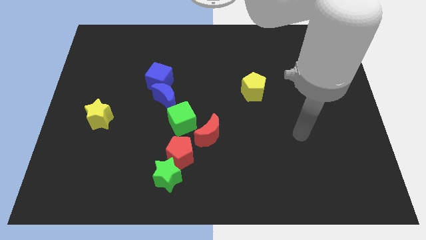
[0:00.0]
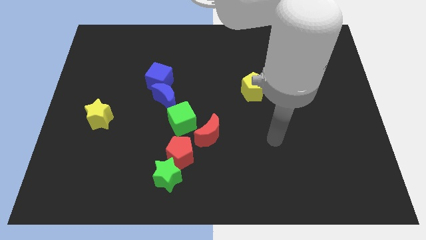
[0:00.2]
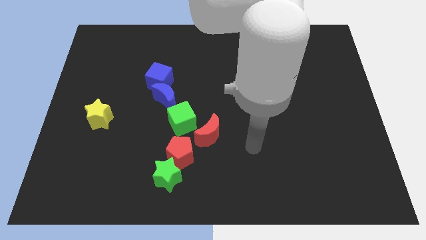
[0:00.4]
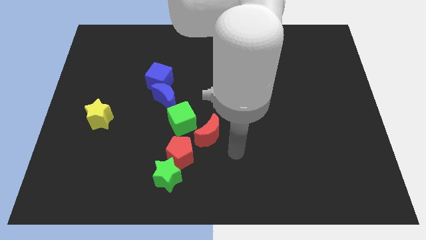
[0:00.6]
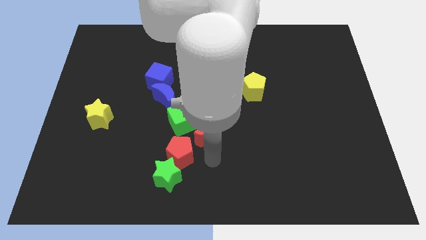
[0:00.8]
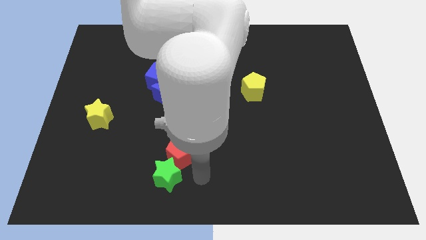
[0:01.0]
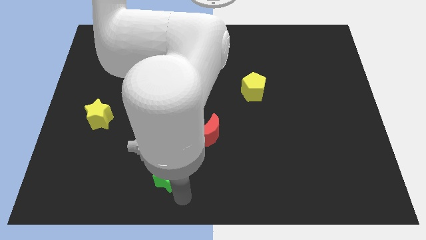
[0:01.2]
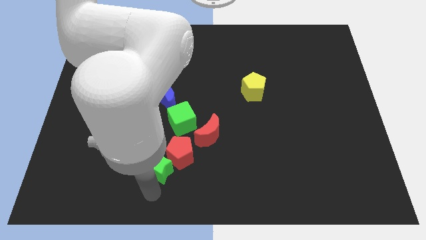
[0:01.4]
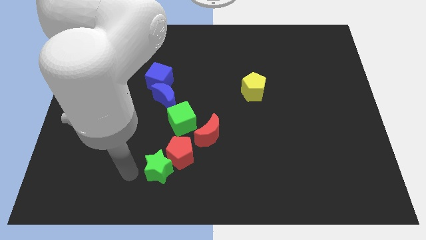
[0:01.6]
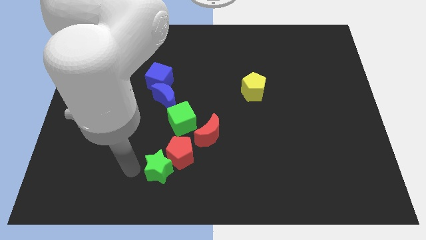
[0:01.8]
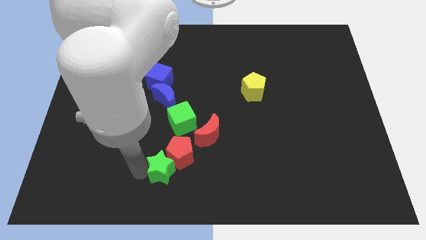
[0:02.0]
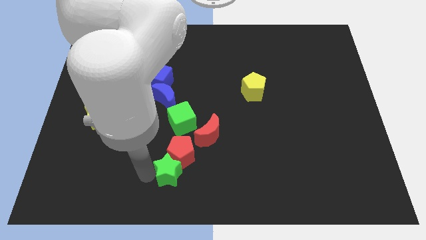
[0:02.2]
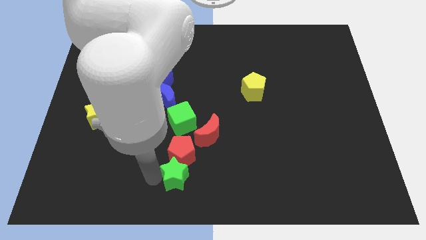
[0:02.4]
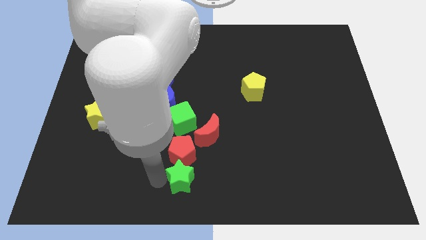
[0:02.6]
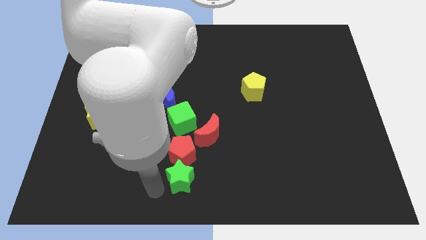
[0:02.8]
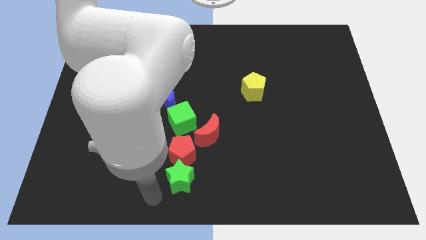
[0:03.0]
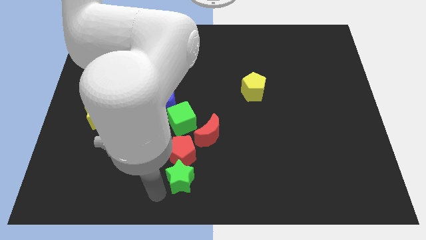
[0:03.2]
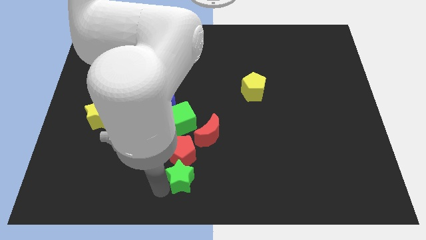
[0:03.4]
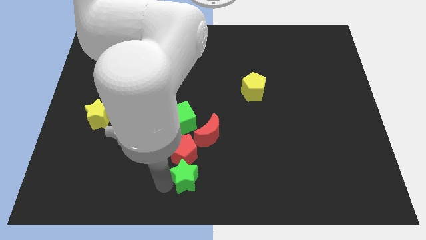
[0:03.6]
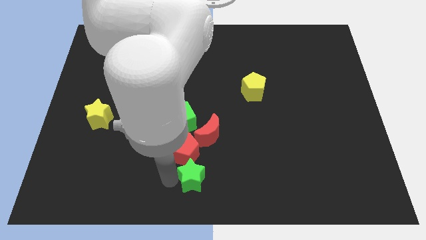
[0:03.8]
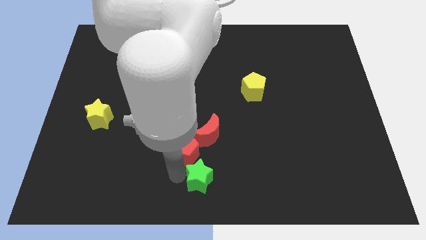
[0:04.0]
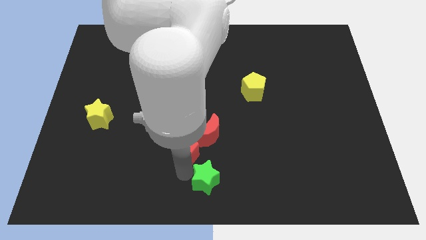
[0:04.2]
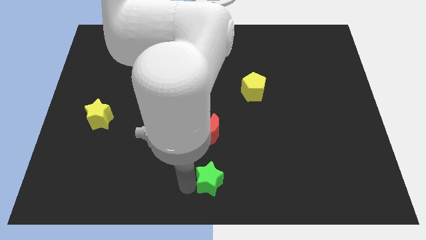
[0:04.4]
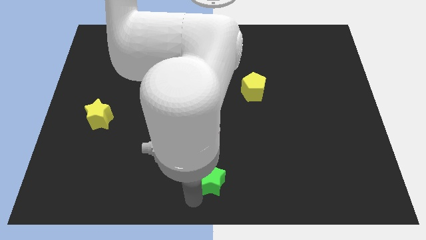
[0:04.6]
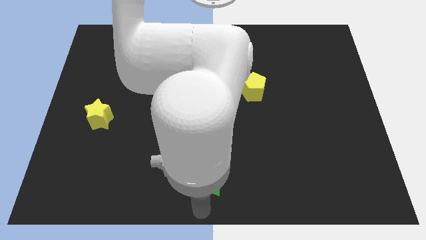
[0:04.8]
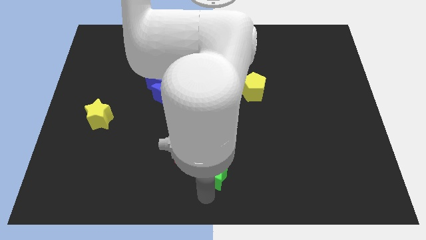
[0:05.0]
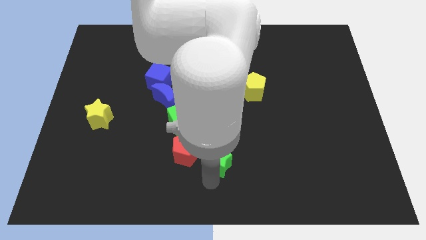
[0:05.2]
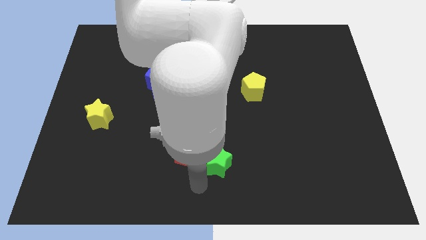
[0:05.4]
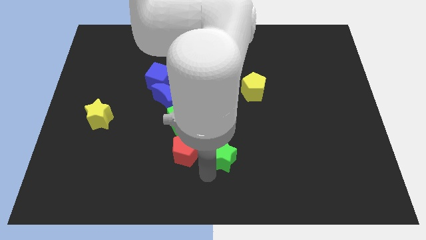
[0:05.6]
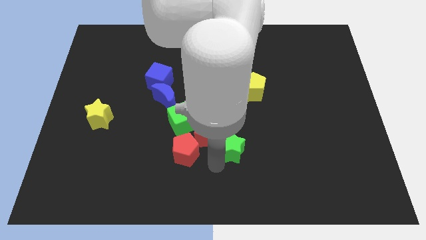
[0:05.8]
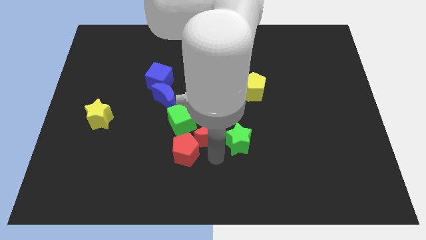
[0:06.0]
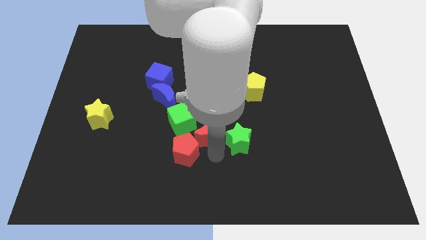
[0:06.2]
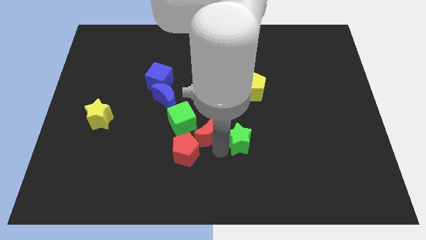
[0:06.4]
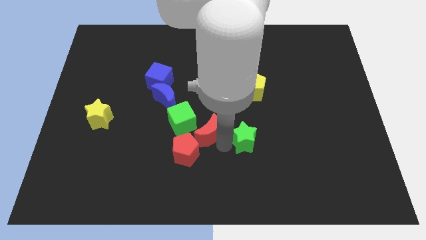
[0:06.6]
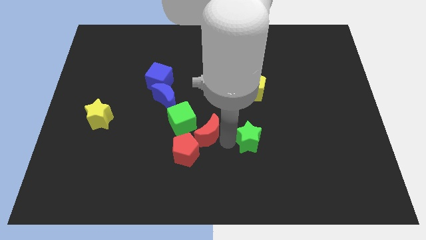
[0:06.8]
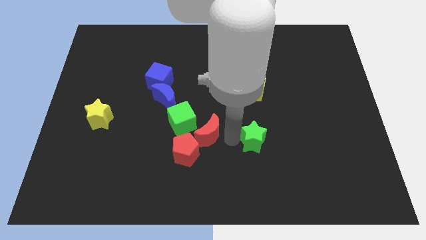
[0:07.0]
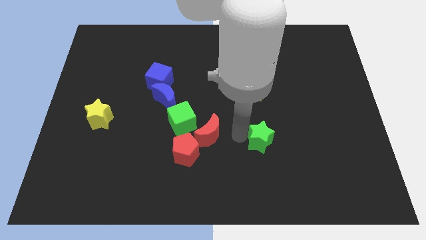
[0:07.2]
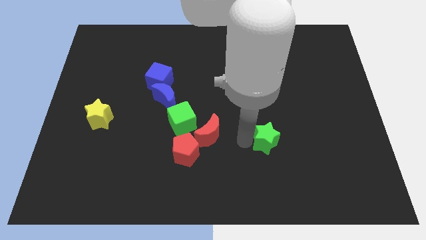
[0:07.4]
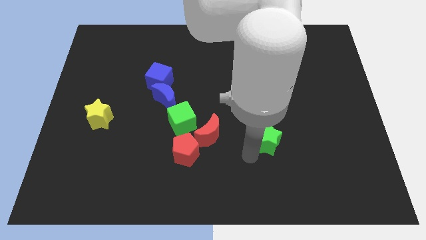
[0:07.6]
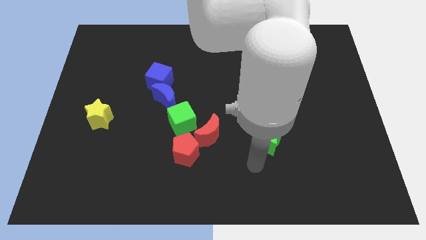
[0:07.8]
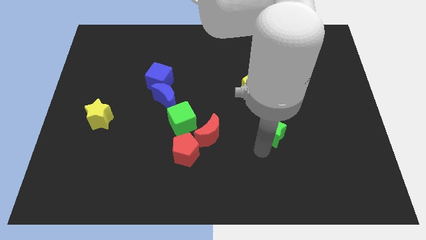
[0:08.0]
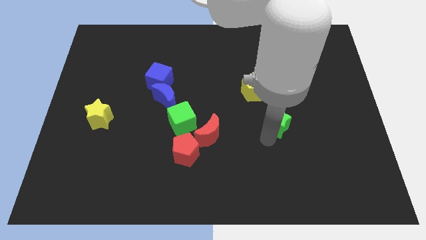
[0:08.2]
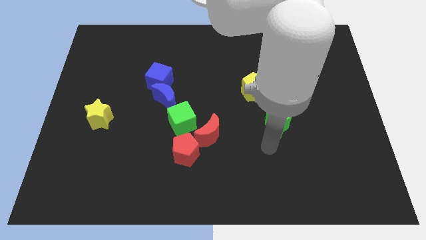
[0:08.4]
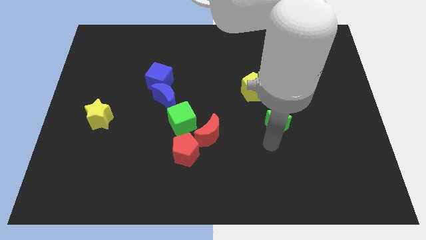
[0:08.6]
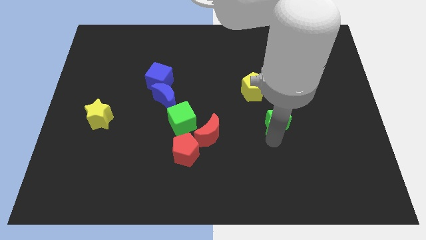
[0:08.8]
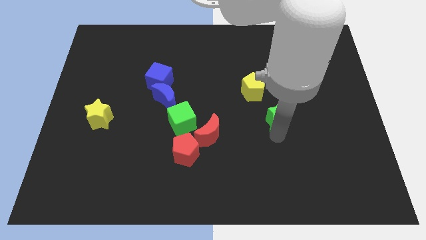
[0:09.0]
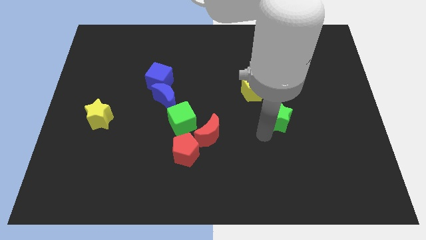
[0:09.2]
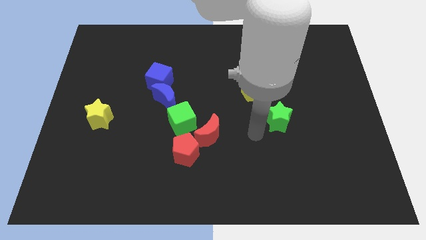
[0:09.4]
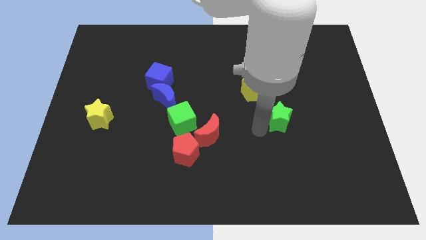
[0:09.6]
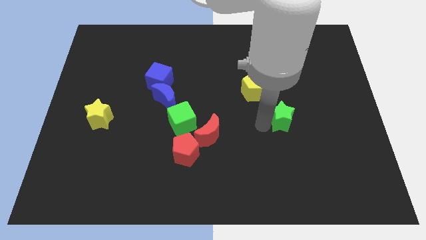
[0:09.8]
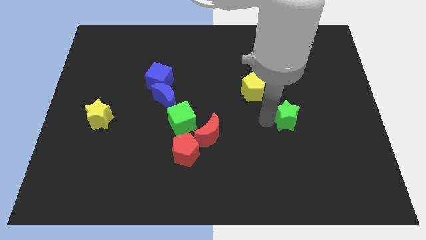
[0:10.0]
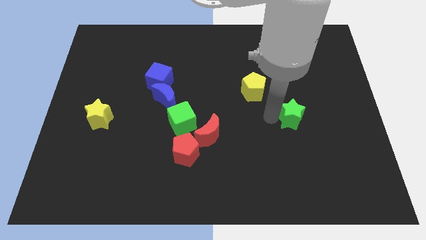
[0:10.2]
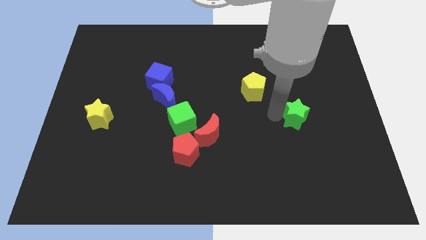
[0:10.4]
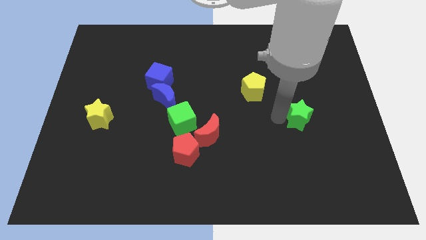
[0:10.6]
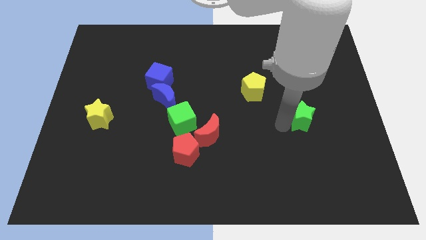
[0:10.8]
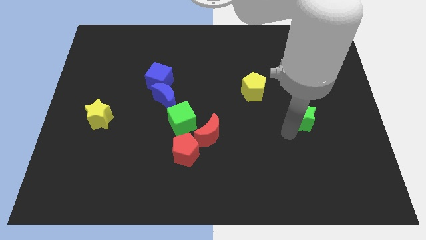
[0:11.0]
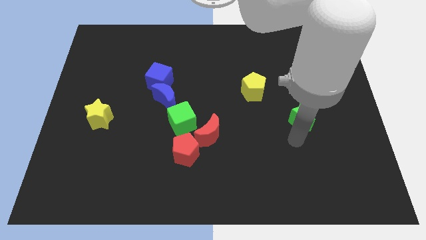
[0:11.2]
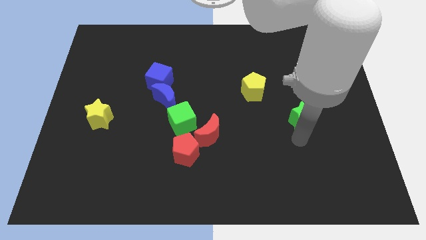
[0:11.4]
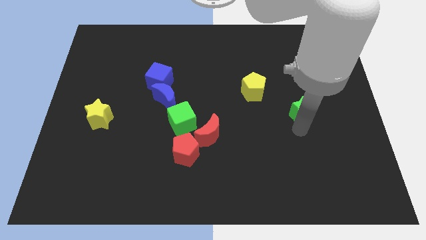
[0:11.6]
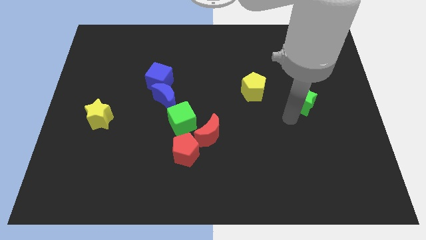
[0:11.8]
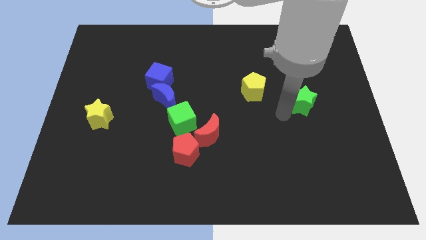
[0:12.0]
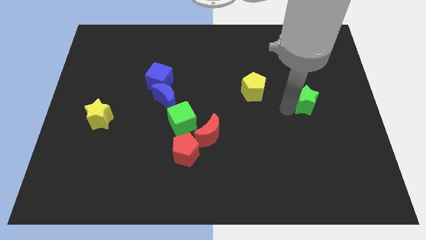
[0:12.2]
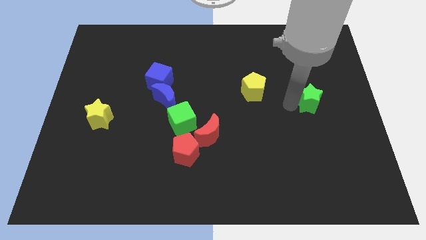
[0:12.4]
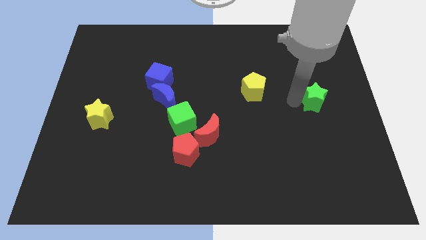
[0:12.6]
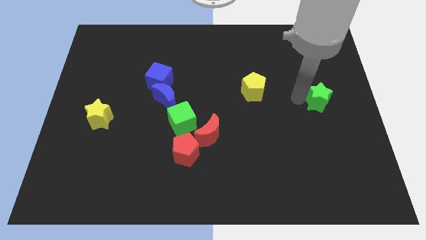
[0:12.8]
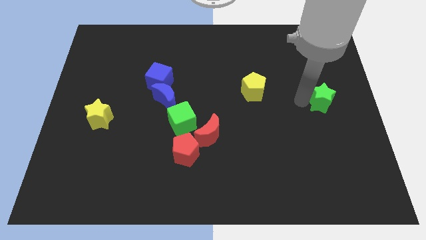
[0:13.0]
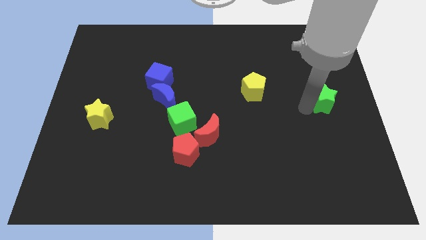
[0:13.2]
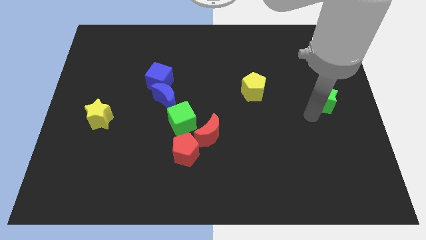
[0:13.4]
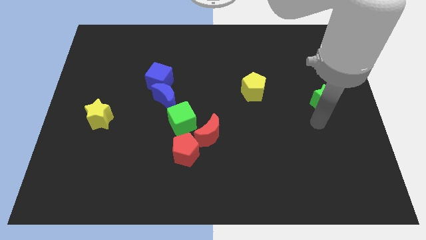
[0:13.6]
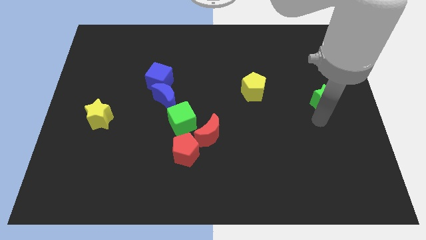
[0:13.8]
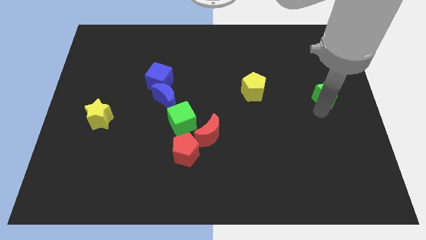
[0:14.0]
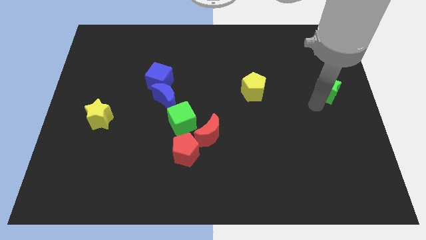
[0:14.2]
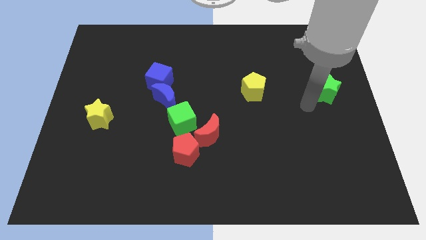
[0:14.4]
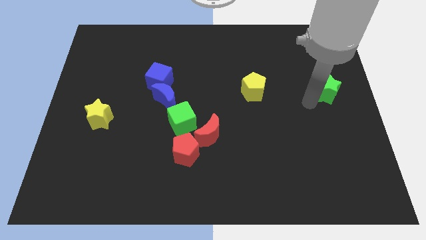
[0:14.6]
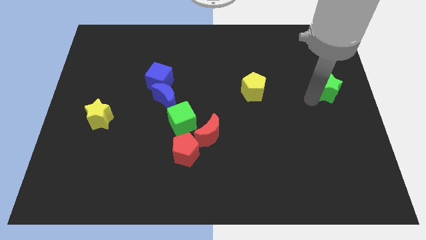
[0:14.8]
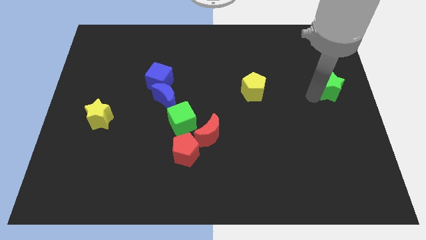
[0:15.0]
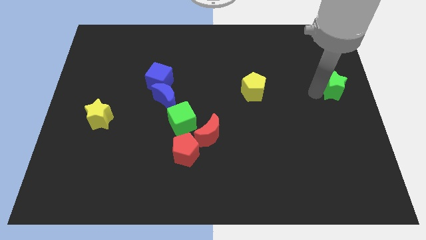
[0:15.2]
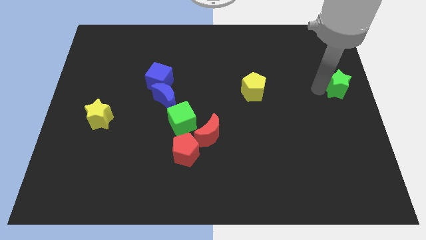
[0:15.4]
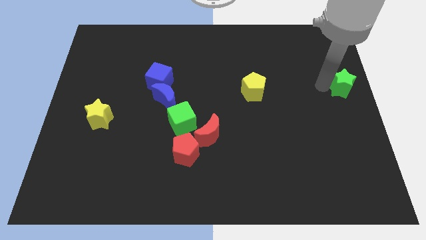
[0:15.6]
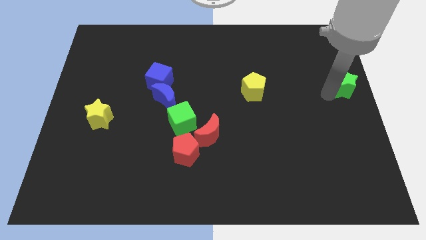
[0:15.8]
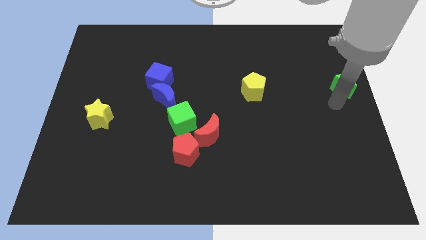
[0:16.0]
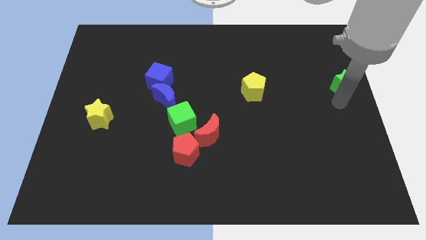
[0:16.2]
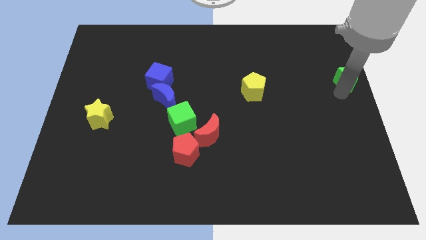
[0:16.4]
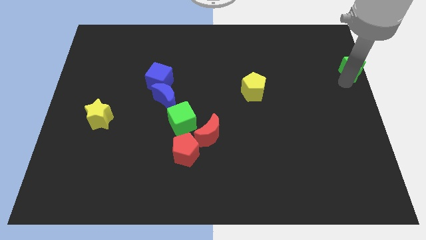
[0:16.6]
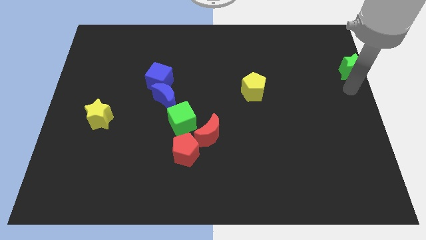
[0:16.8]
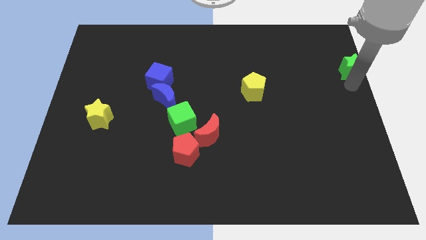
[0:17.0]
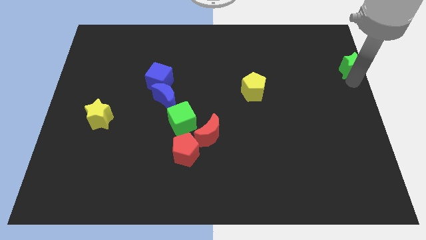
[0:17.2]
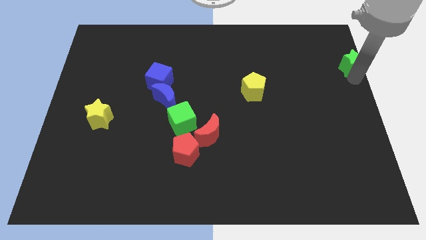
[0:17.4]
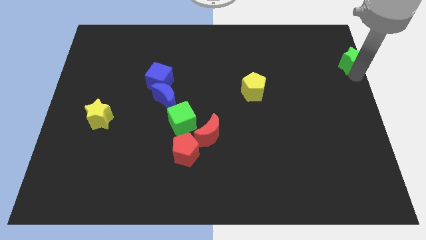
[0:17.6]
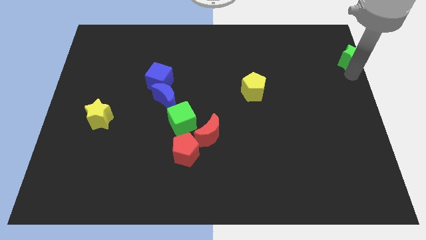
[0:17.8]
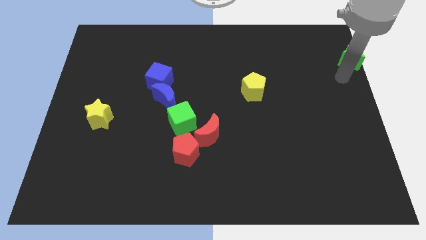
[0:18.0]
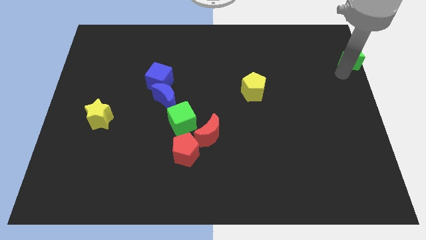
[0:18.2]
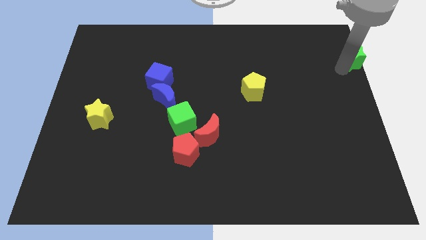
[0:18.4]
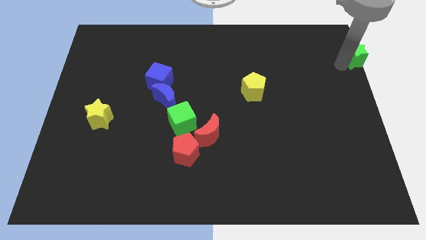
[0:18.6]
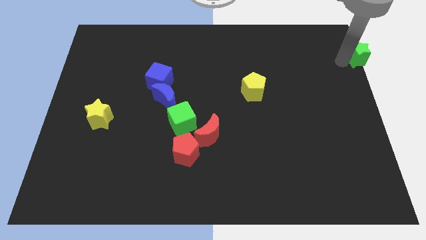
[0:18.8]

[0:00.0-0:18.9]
put the green star to the top right corner
